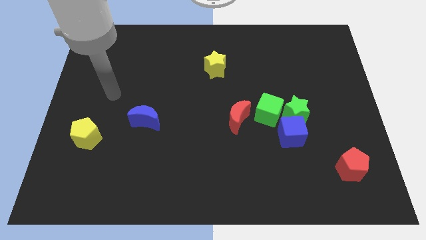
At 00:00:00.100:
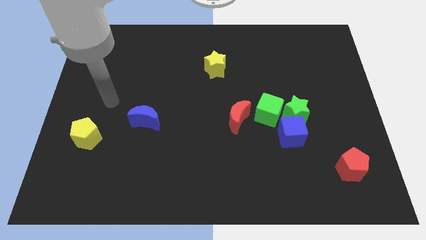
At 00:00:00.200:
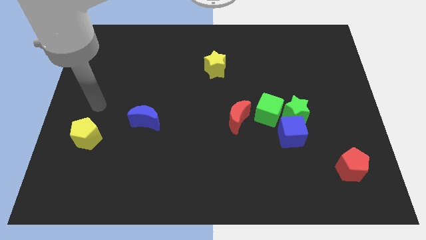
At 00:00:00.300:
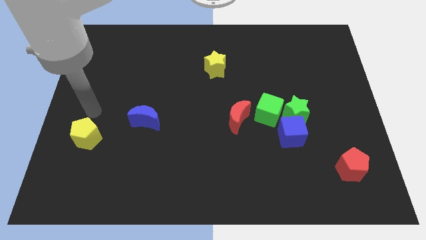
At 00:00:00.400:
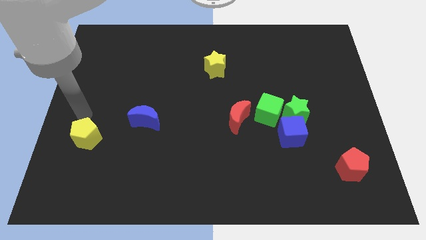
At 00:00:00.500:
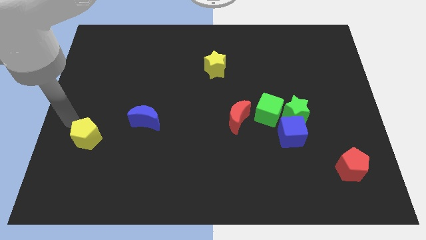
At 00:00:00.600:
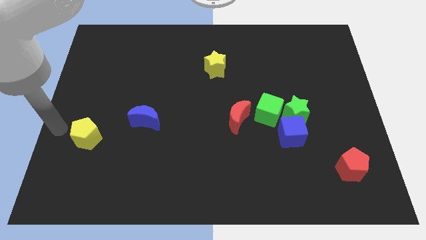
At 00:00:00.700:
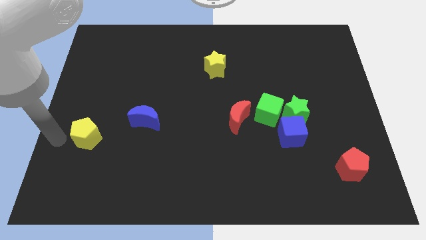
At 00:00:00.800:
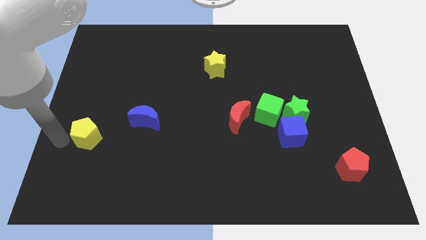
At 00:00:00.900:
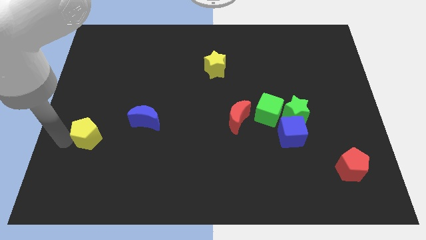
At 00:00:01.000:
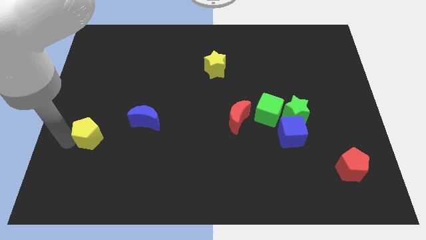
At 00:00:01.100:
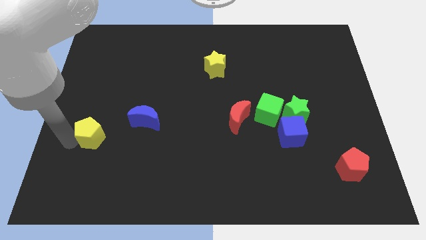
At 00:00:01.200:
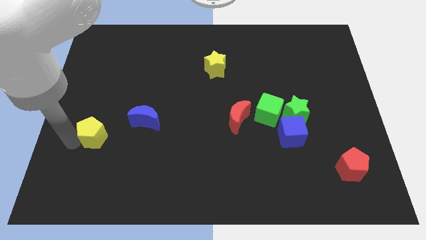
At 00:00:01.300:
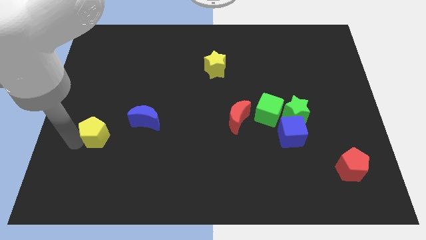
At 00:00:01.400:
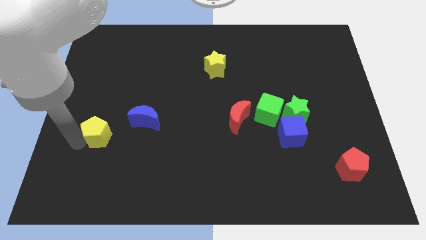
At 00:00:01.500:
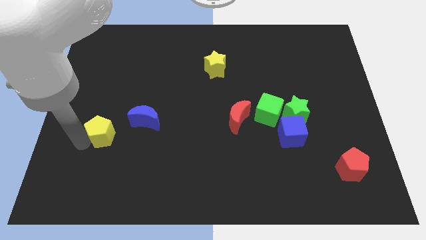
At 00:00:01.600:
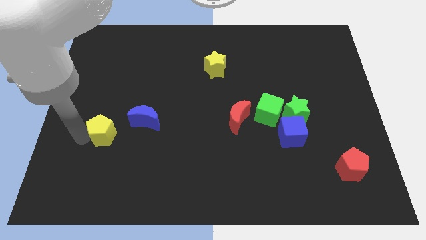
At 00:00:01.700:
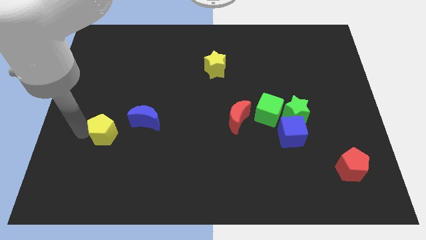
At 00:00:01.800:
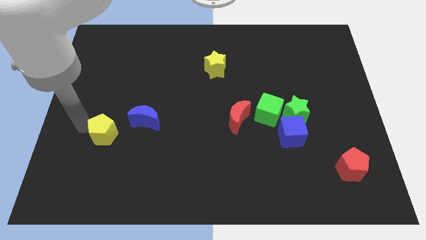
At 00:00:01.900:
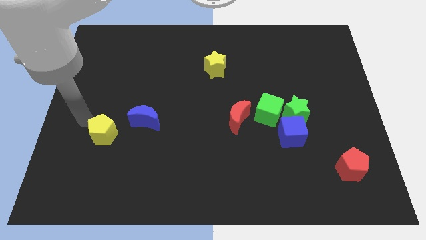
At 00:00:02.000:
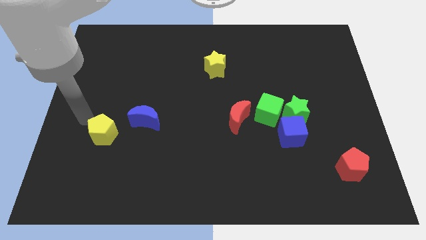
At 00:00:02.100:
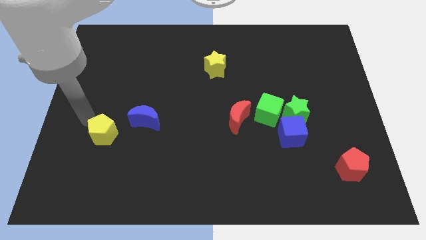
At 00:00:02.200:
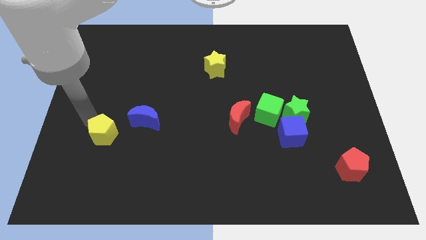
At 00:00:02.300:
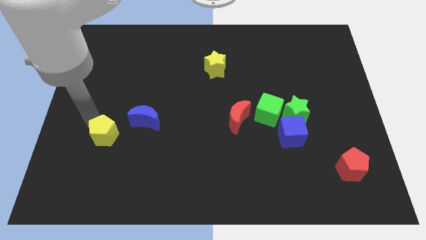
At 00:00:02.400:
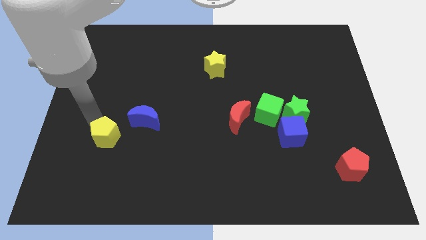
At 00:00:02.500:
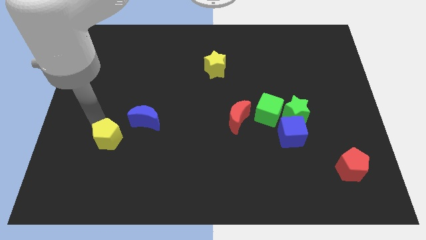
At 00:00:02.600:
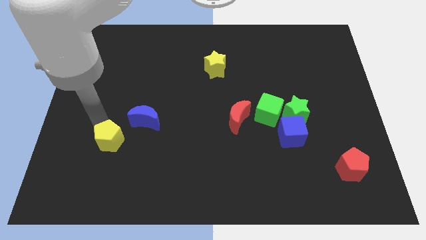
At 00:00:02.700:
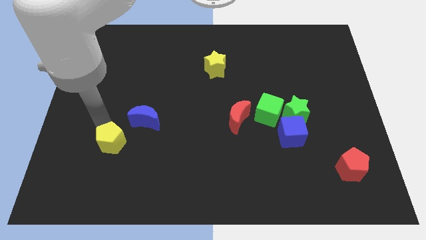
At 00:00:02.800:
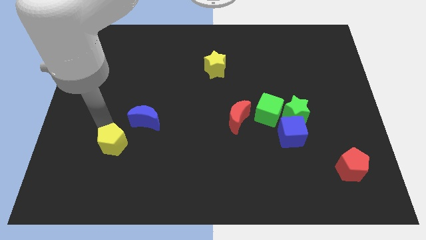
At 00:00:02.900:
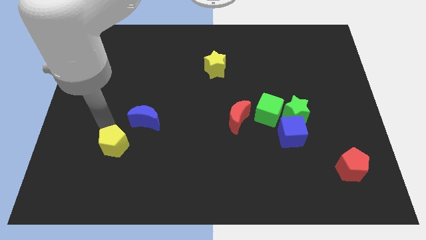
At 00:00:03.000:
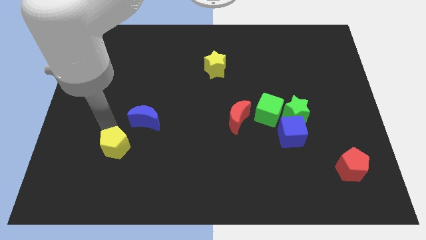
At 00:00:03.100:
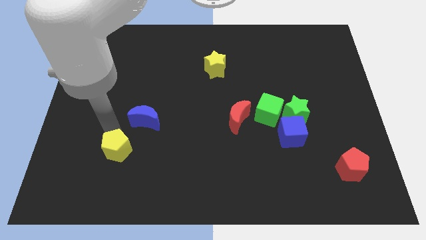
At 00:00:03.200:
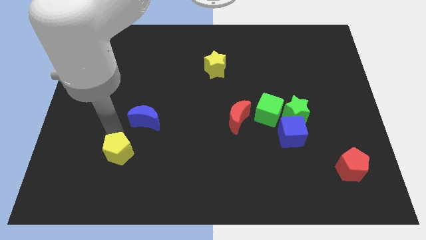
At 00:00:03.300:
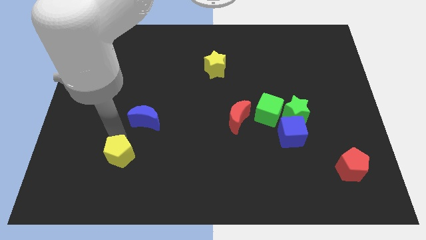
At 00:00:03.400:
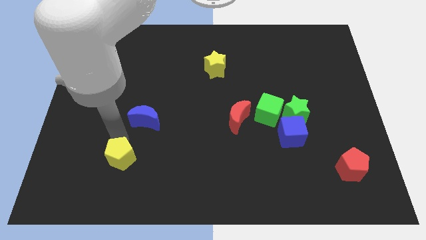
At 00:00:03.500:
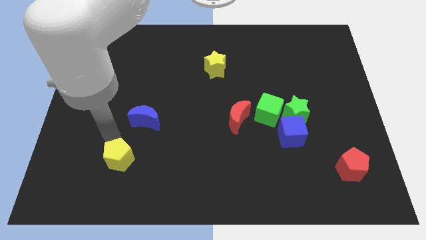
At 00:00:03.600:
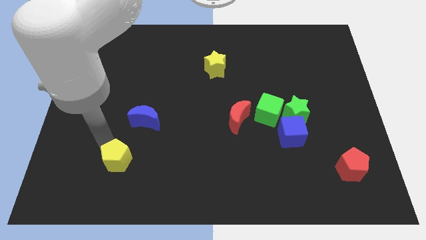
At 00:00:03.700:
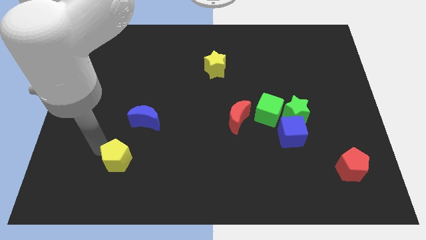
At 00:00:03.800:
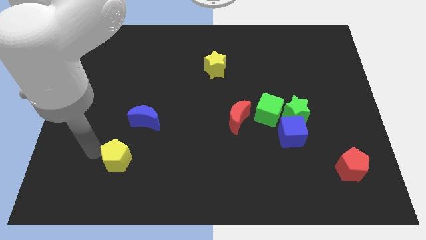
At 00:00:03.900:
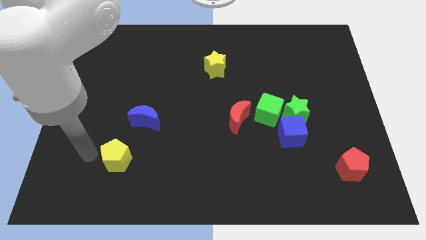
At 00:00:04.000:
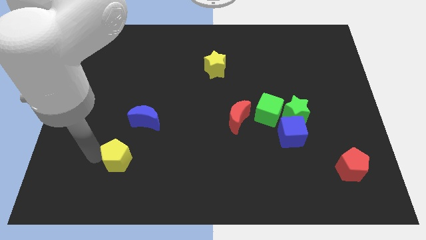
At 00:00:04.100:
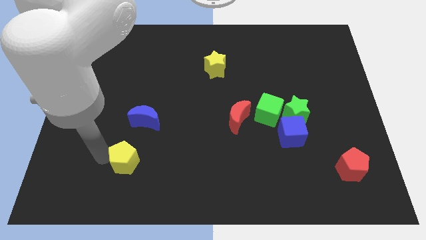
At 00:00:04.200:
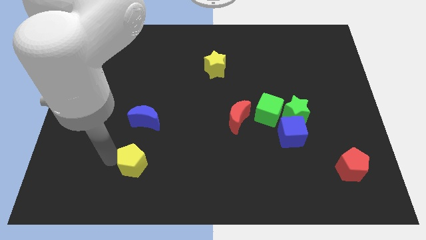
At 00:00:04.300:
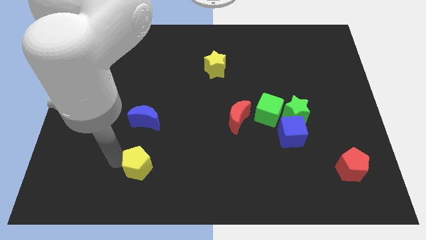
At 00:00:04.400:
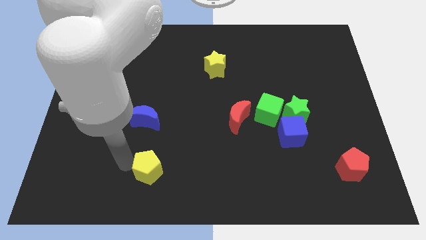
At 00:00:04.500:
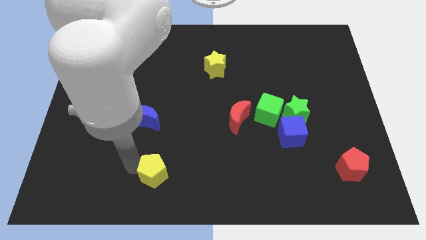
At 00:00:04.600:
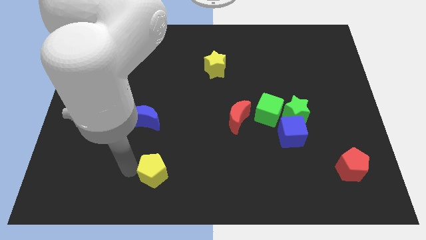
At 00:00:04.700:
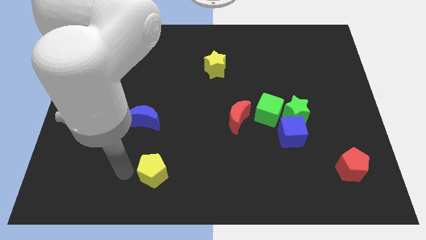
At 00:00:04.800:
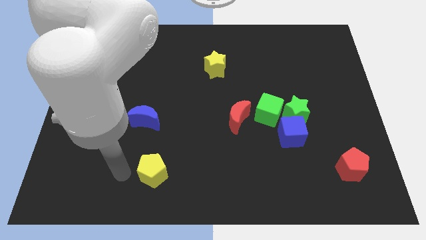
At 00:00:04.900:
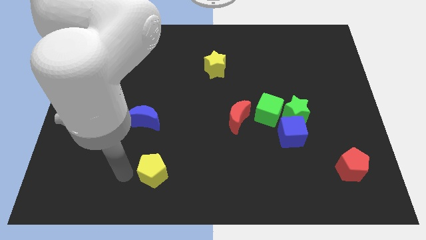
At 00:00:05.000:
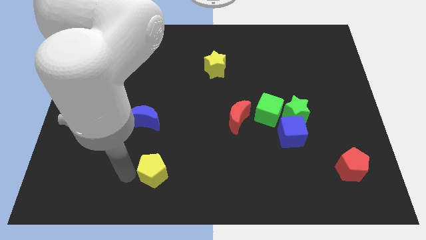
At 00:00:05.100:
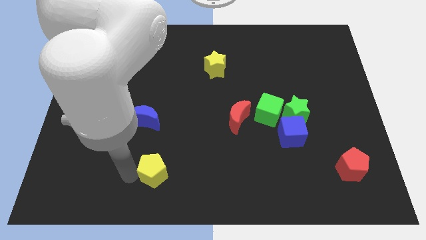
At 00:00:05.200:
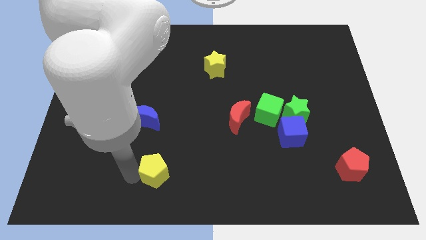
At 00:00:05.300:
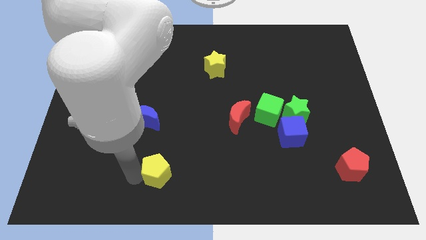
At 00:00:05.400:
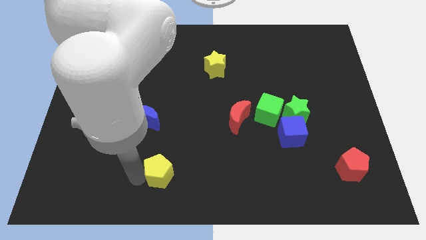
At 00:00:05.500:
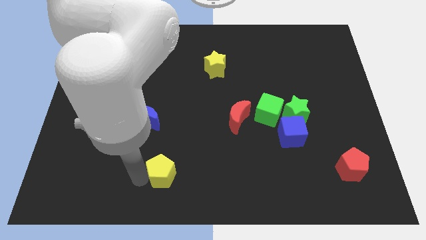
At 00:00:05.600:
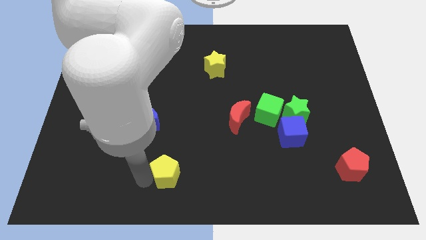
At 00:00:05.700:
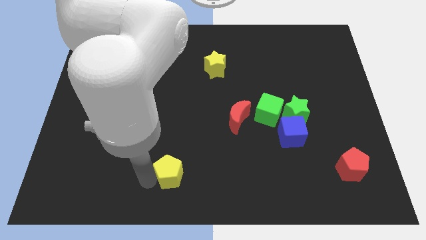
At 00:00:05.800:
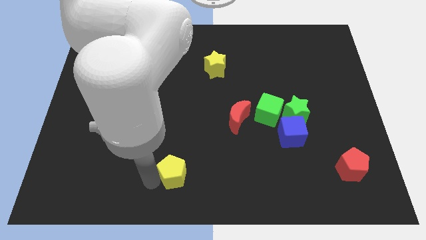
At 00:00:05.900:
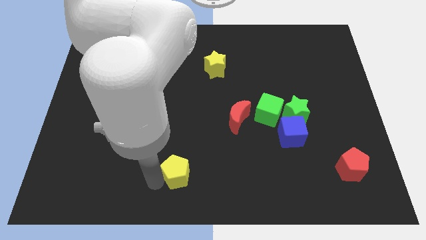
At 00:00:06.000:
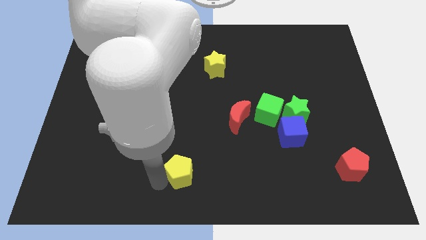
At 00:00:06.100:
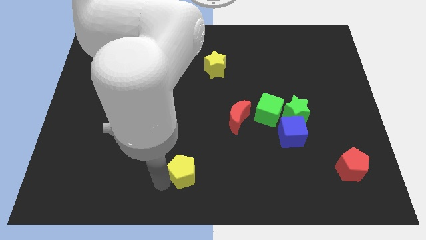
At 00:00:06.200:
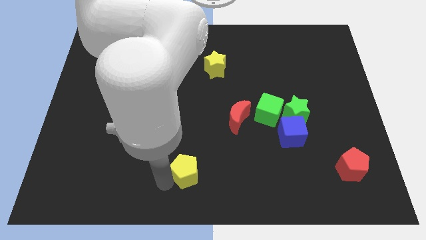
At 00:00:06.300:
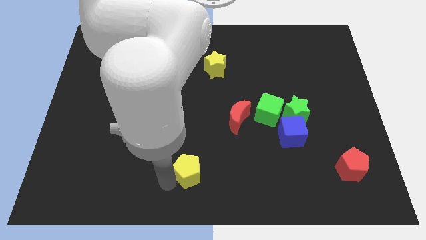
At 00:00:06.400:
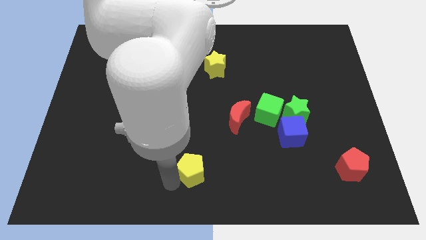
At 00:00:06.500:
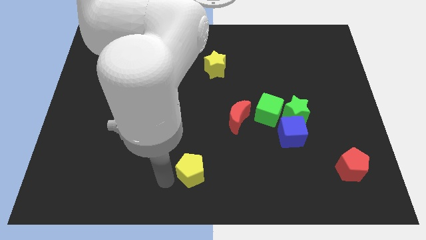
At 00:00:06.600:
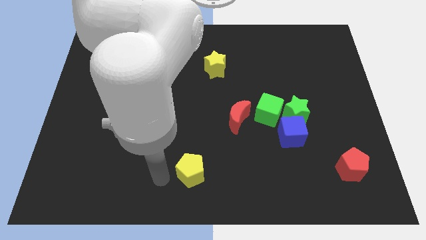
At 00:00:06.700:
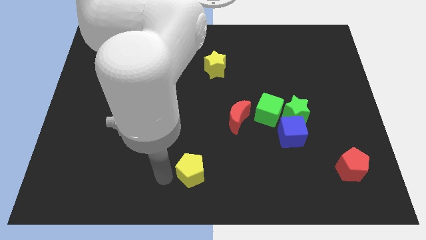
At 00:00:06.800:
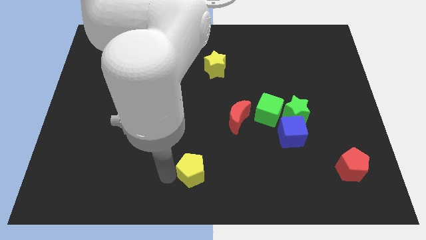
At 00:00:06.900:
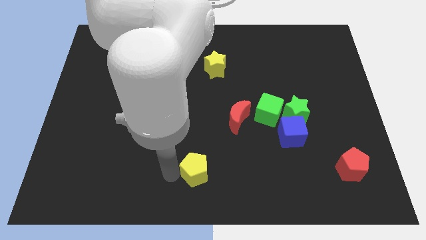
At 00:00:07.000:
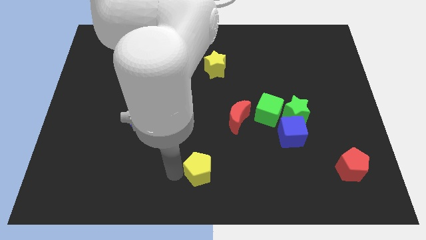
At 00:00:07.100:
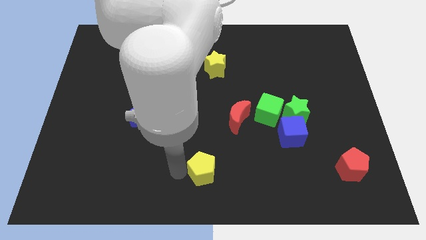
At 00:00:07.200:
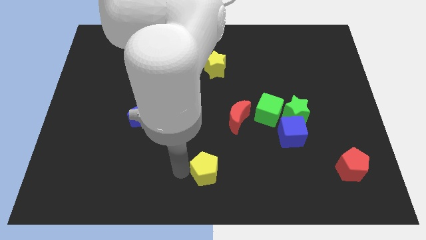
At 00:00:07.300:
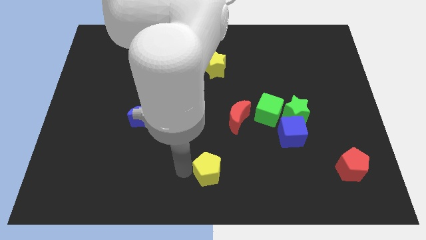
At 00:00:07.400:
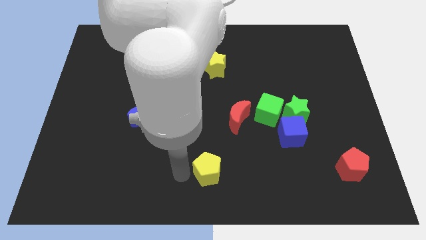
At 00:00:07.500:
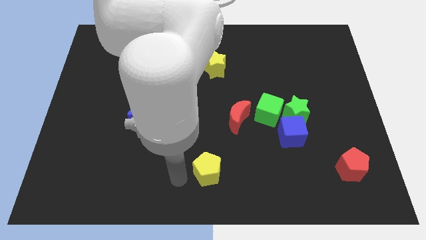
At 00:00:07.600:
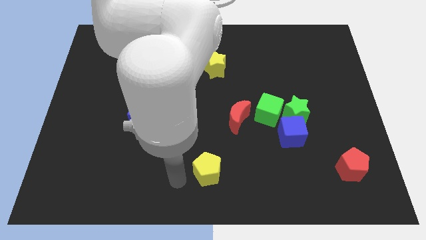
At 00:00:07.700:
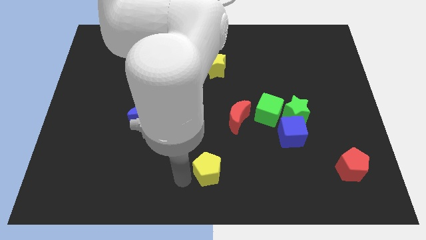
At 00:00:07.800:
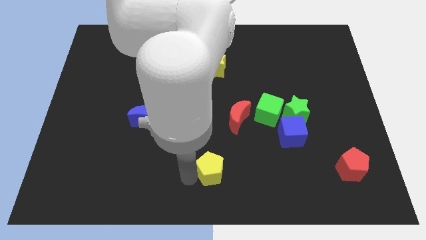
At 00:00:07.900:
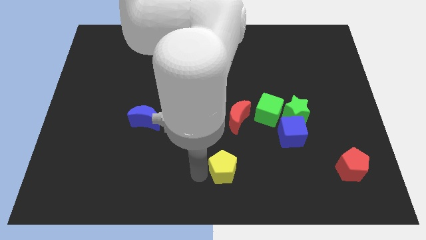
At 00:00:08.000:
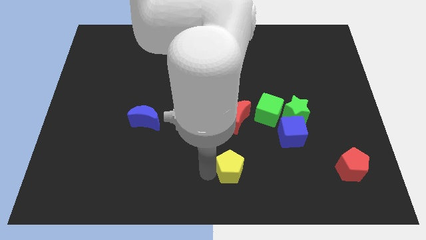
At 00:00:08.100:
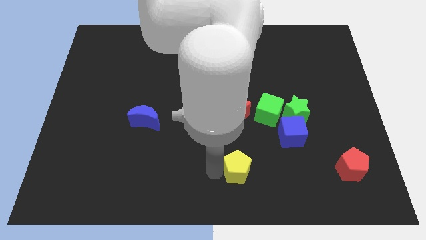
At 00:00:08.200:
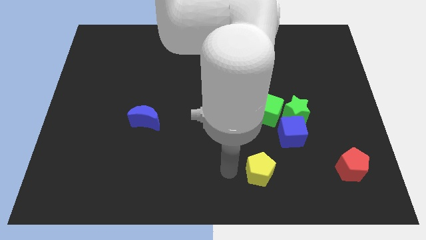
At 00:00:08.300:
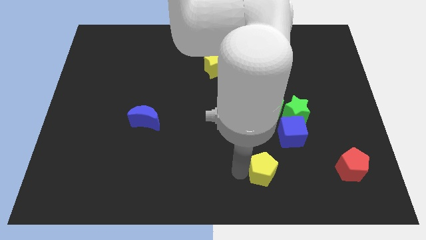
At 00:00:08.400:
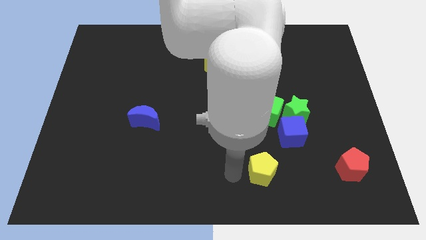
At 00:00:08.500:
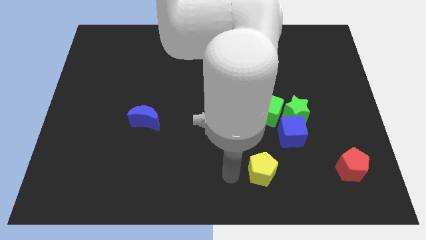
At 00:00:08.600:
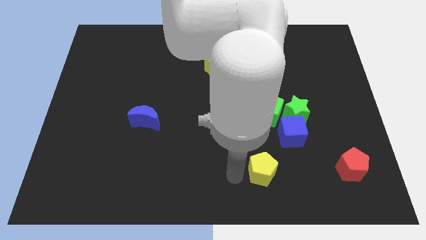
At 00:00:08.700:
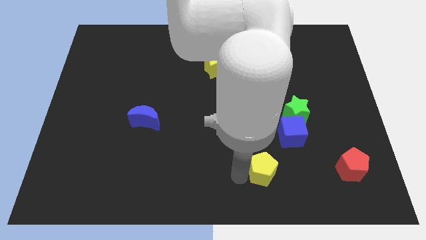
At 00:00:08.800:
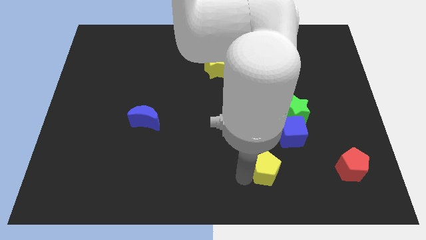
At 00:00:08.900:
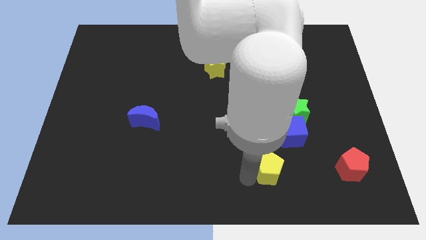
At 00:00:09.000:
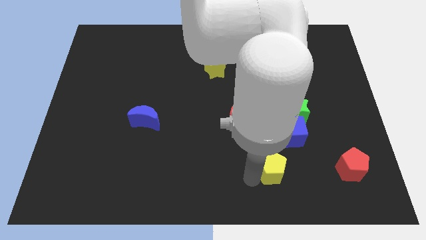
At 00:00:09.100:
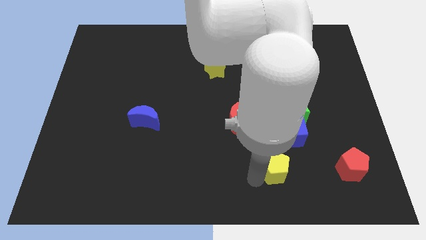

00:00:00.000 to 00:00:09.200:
move the yellow pentagon to the left of the red pentagon
